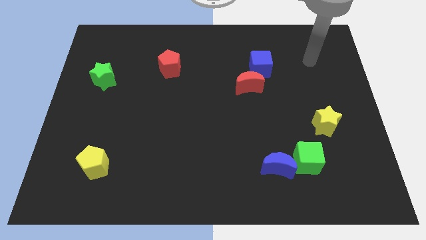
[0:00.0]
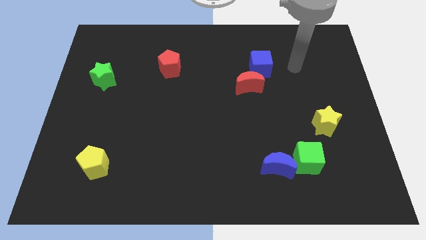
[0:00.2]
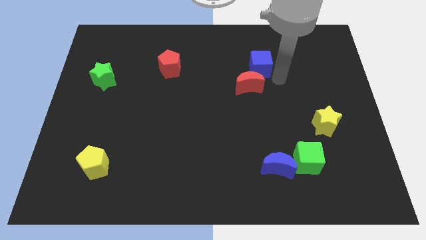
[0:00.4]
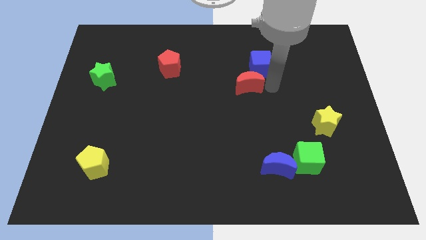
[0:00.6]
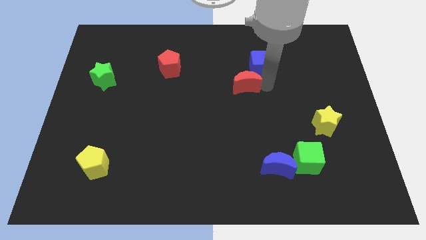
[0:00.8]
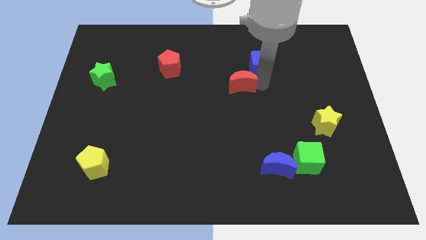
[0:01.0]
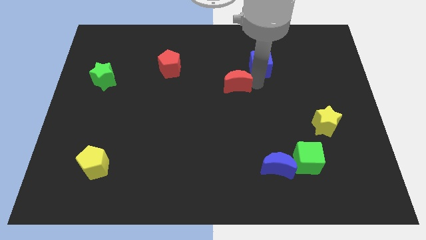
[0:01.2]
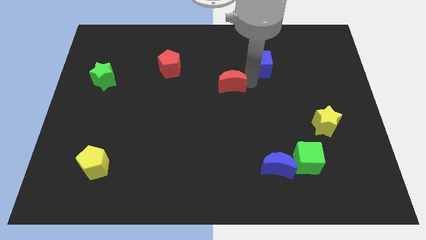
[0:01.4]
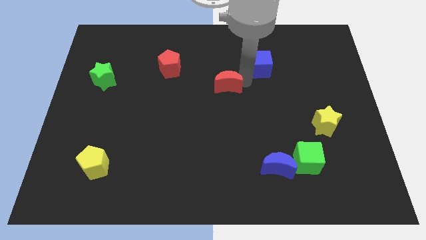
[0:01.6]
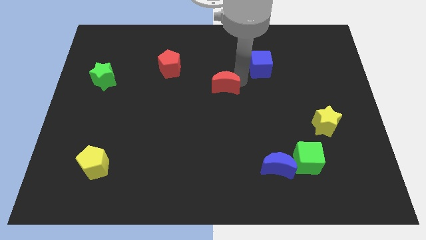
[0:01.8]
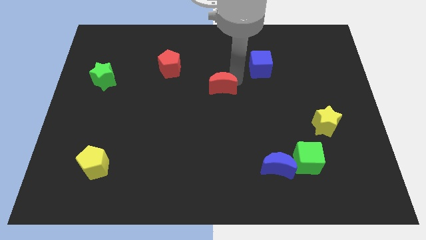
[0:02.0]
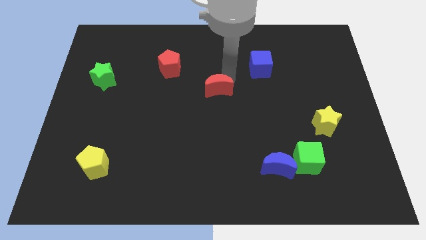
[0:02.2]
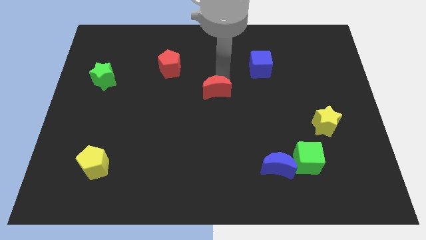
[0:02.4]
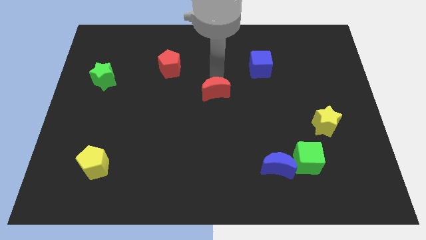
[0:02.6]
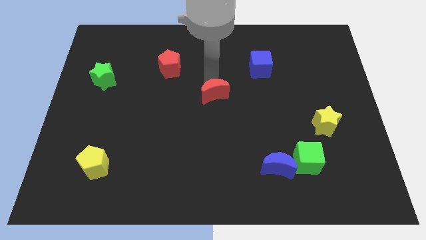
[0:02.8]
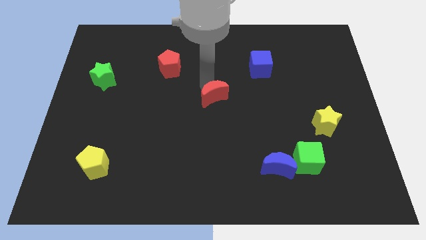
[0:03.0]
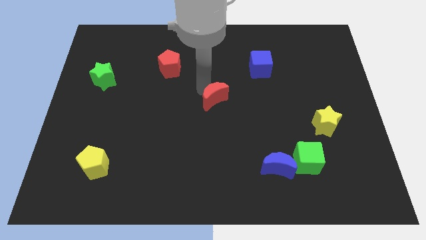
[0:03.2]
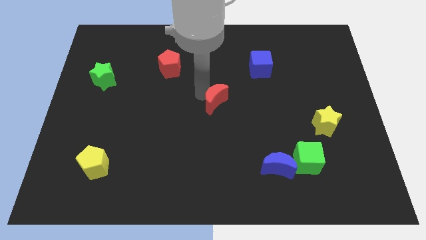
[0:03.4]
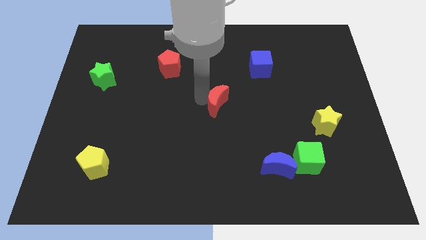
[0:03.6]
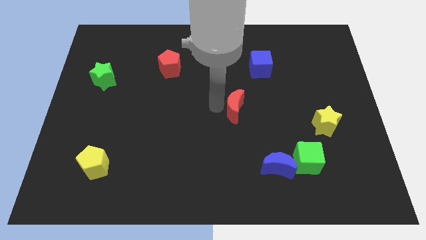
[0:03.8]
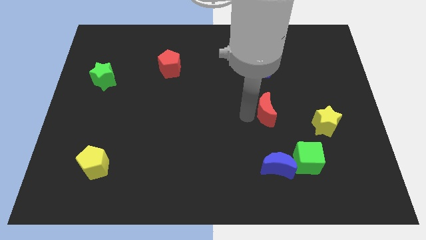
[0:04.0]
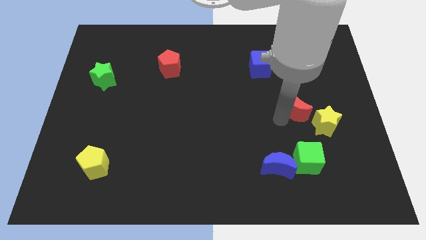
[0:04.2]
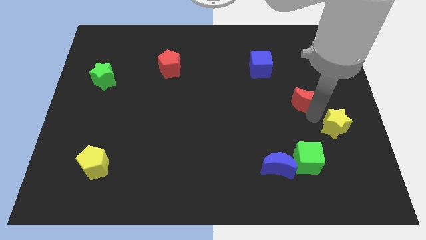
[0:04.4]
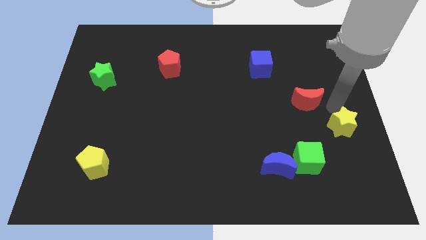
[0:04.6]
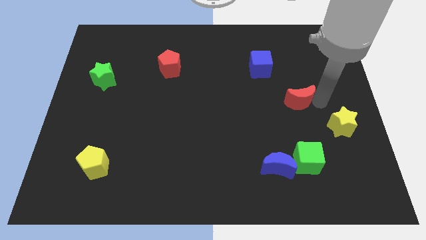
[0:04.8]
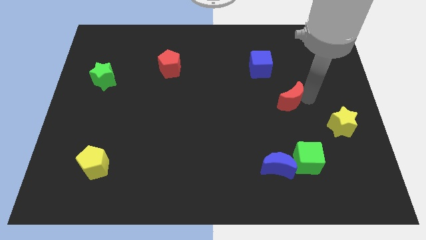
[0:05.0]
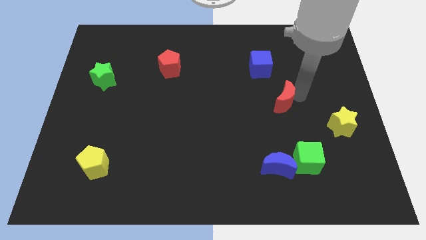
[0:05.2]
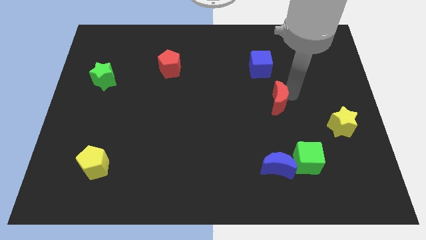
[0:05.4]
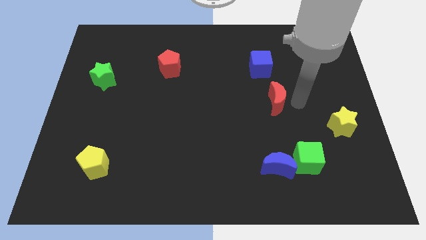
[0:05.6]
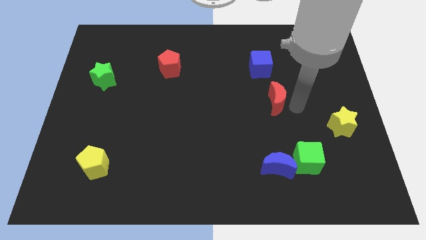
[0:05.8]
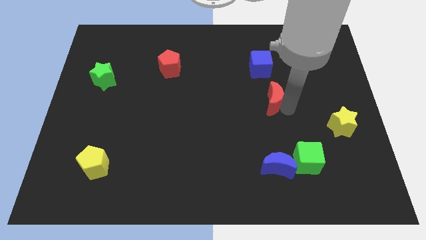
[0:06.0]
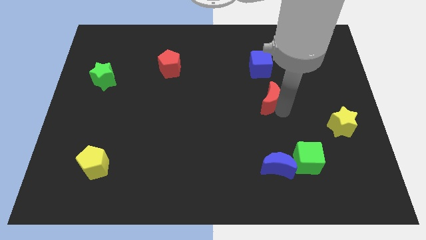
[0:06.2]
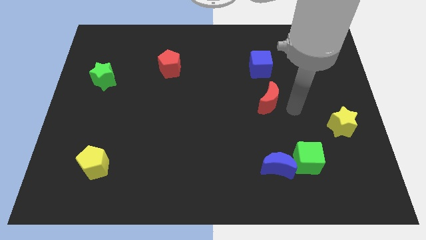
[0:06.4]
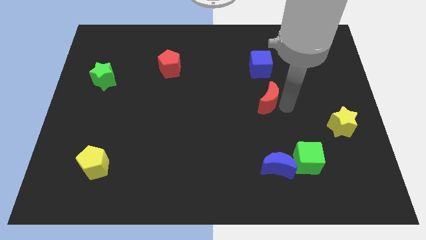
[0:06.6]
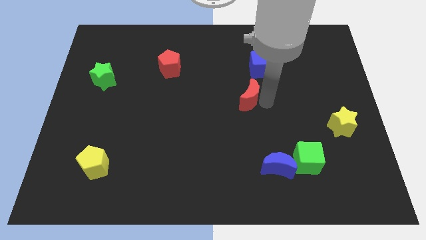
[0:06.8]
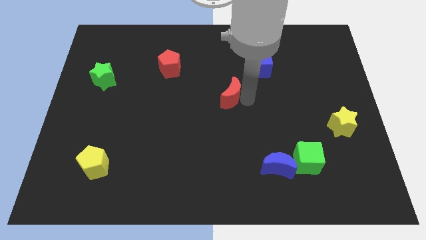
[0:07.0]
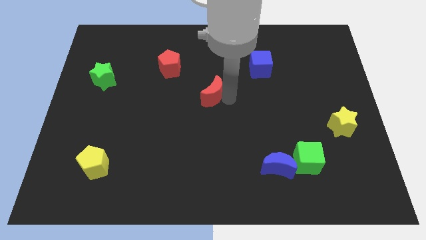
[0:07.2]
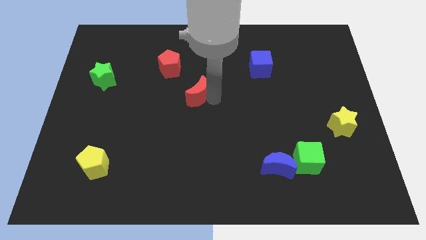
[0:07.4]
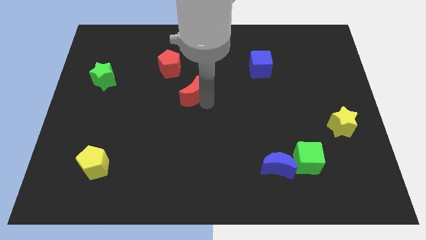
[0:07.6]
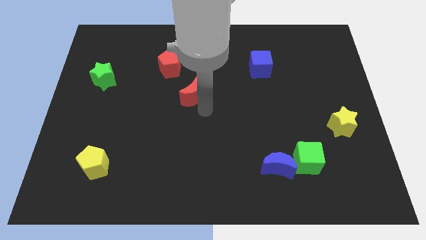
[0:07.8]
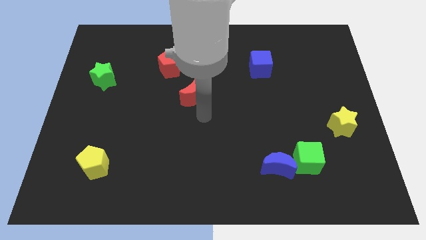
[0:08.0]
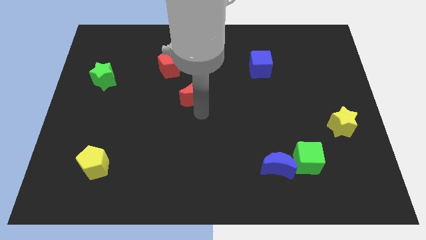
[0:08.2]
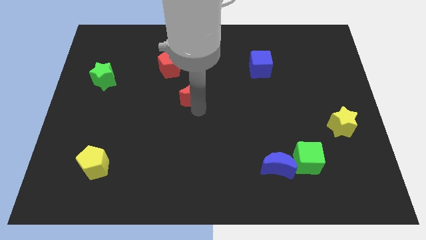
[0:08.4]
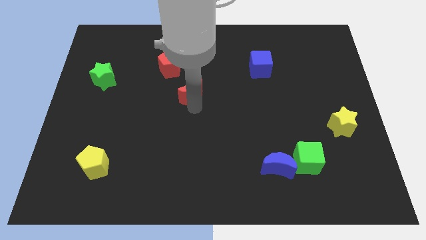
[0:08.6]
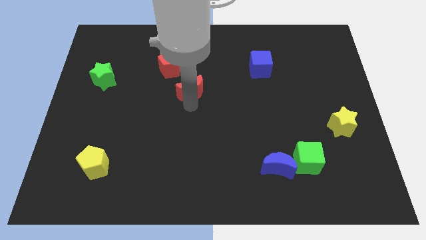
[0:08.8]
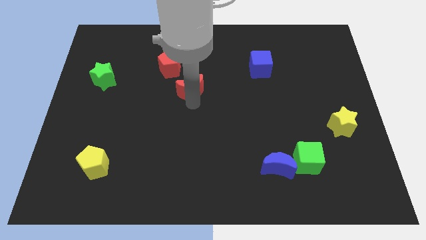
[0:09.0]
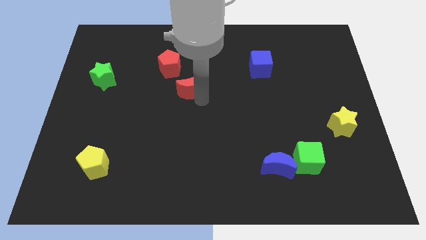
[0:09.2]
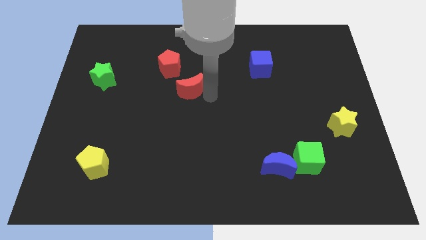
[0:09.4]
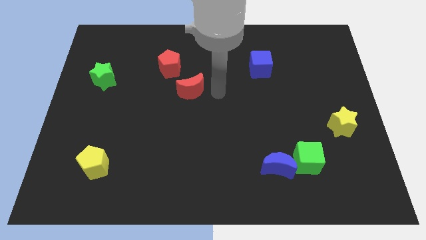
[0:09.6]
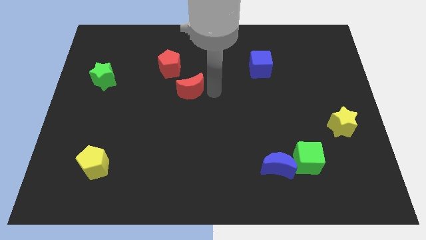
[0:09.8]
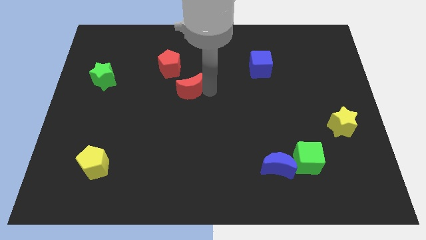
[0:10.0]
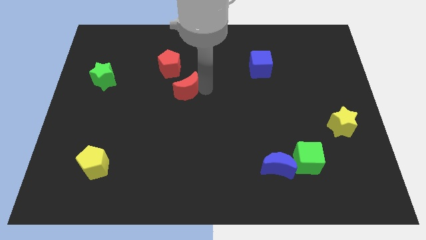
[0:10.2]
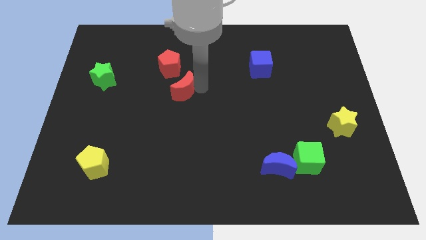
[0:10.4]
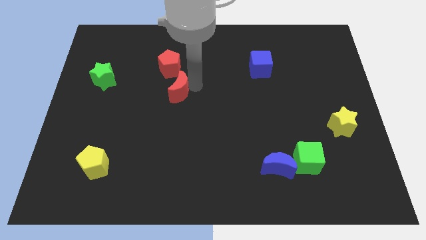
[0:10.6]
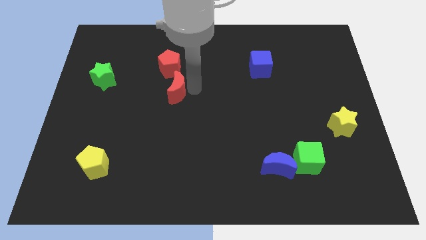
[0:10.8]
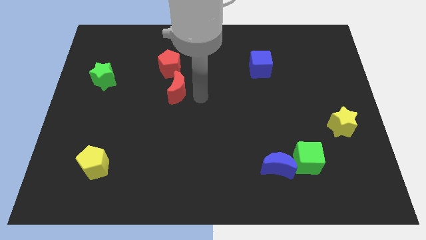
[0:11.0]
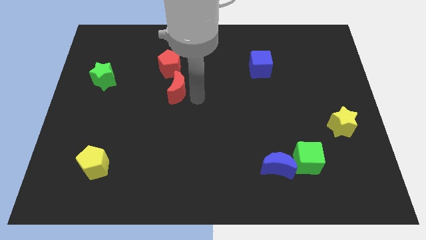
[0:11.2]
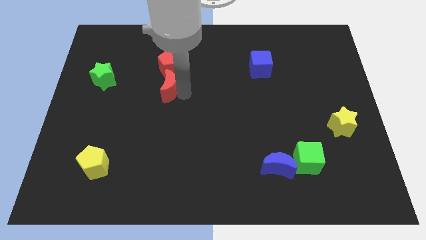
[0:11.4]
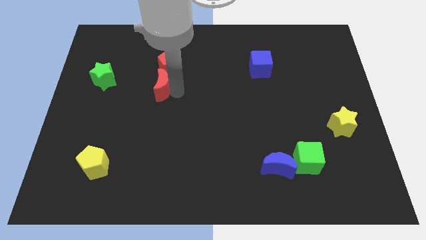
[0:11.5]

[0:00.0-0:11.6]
push the red moon to the left

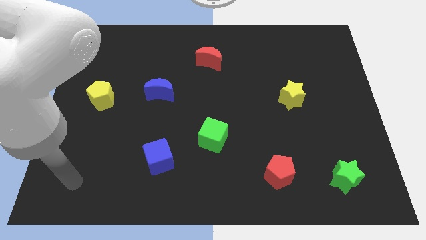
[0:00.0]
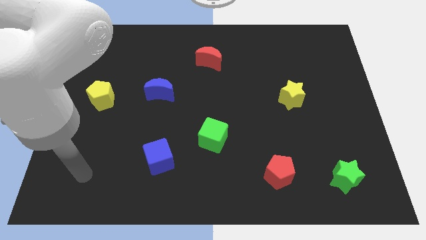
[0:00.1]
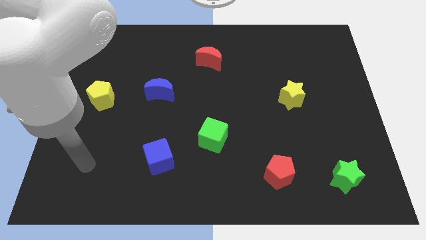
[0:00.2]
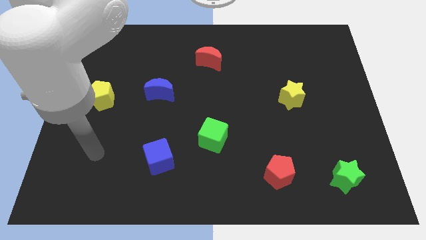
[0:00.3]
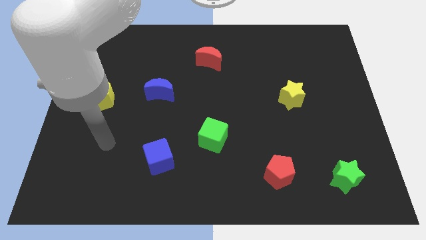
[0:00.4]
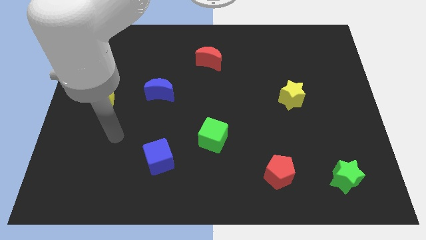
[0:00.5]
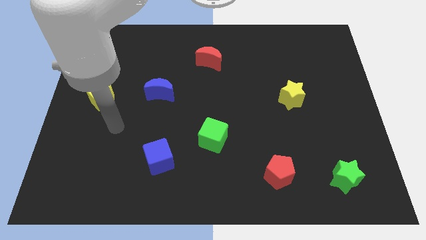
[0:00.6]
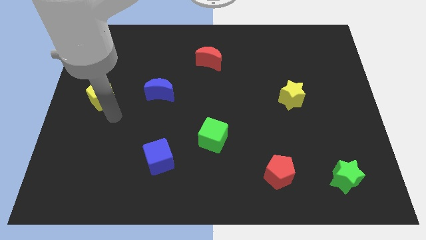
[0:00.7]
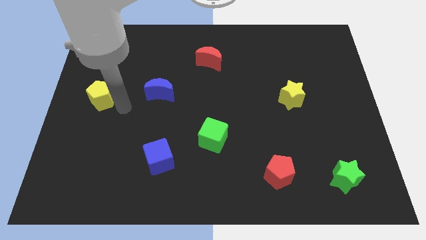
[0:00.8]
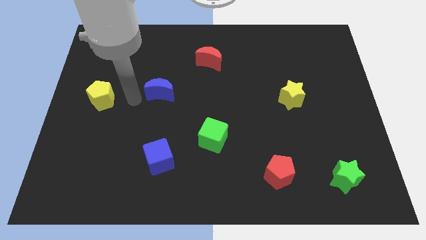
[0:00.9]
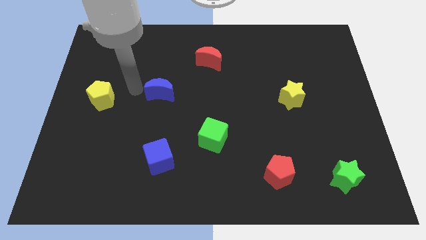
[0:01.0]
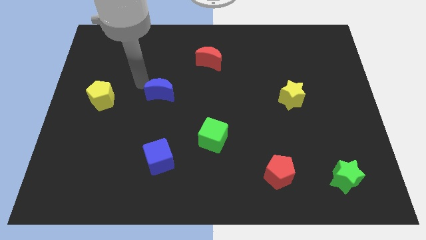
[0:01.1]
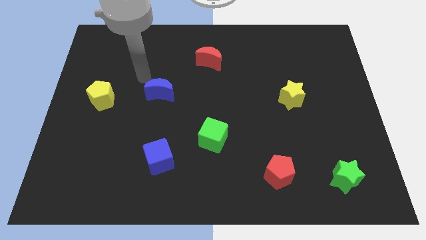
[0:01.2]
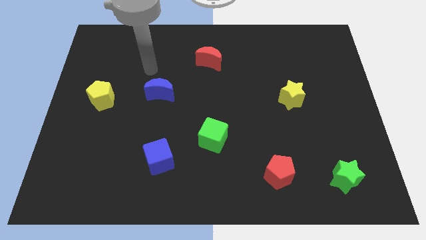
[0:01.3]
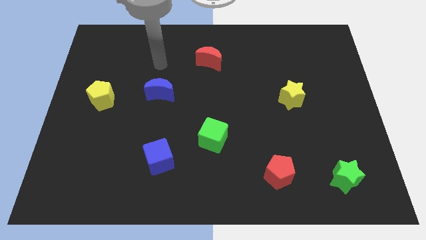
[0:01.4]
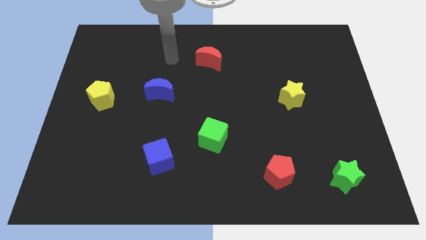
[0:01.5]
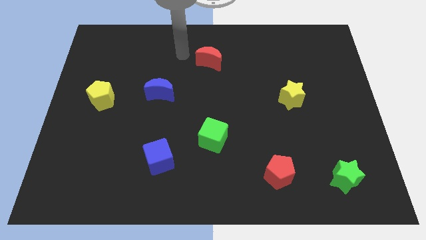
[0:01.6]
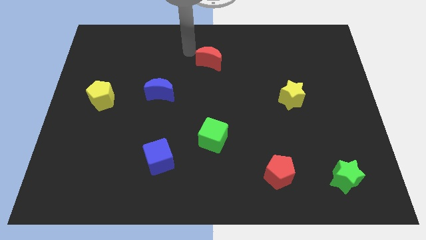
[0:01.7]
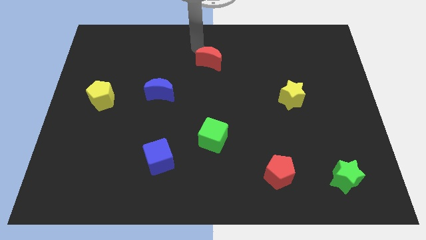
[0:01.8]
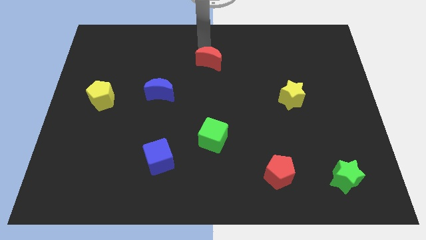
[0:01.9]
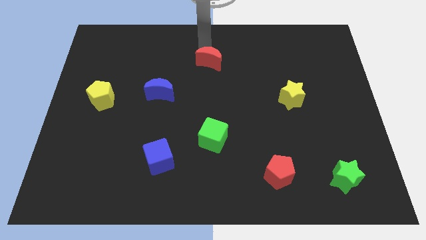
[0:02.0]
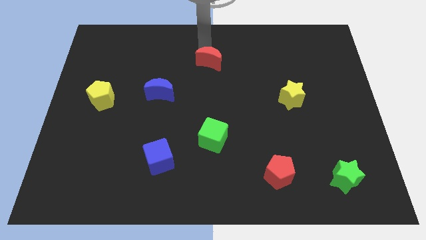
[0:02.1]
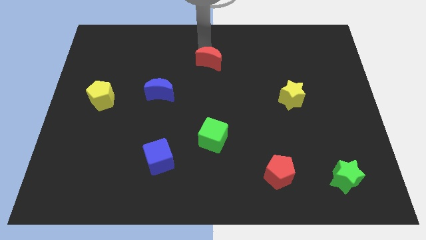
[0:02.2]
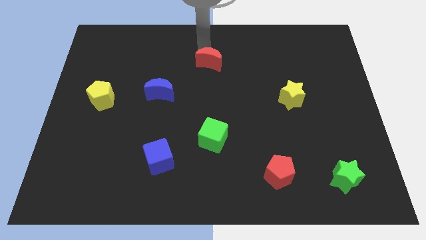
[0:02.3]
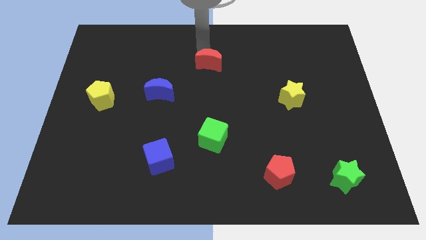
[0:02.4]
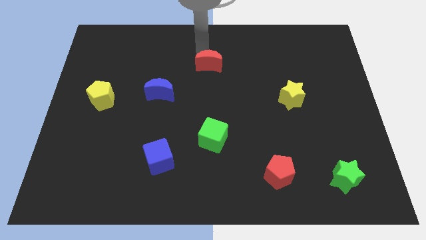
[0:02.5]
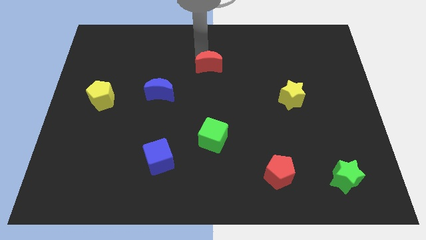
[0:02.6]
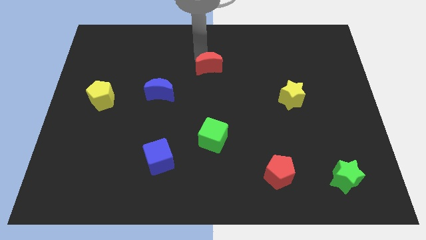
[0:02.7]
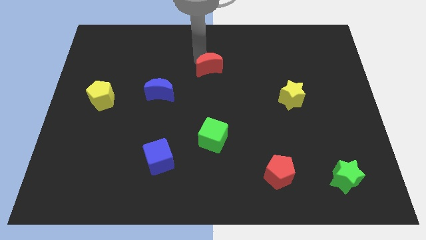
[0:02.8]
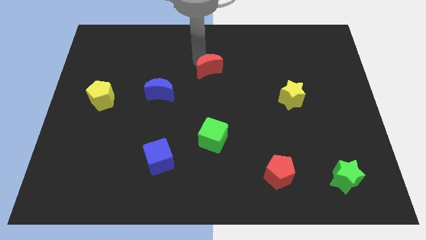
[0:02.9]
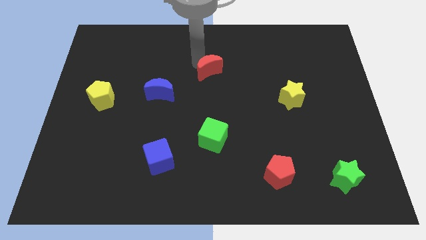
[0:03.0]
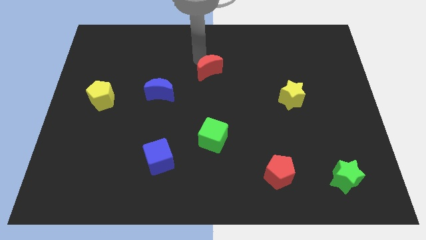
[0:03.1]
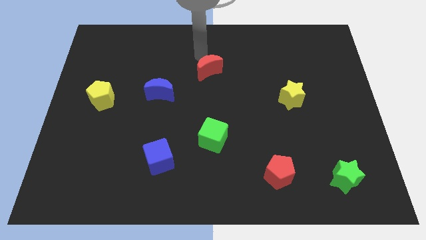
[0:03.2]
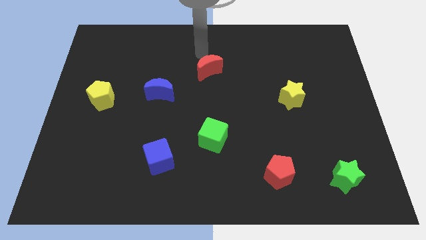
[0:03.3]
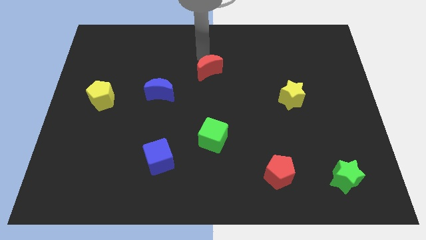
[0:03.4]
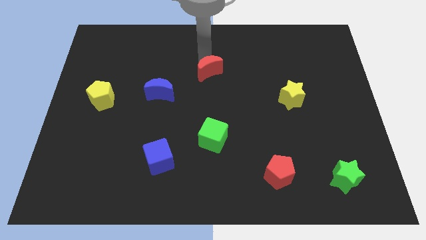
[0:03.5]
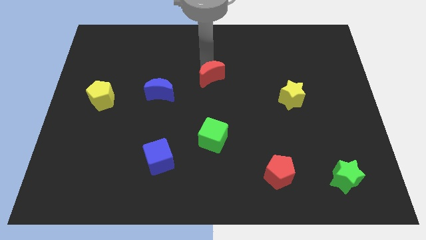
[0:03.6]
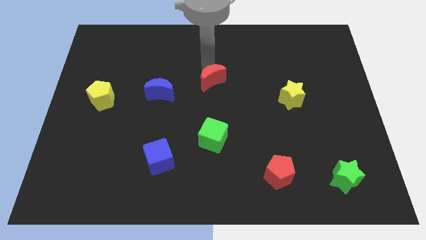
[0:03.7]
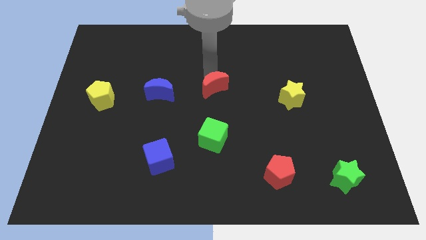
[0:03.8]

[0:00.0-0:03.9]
slide the red moon downwards slightly
